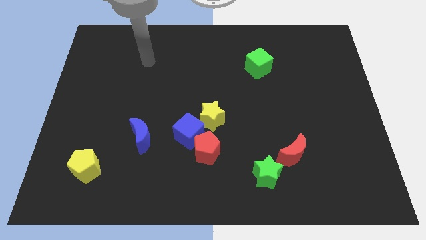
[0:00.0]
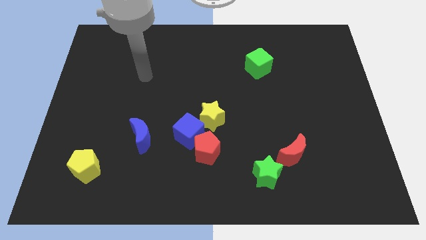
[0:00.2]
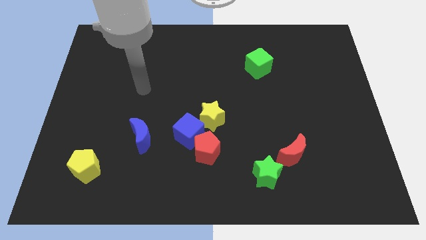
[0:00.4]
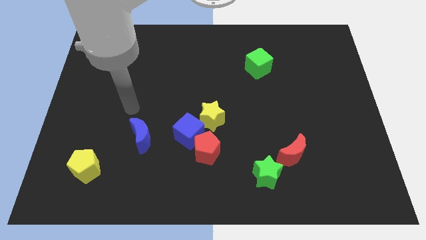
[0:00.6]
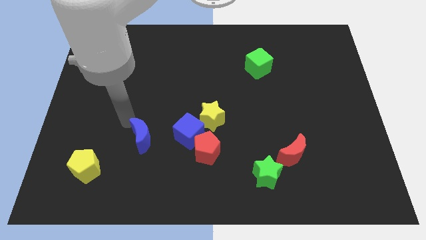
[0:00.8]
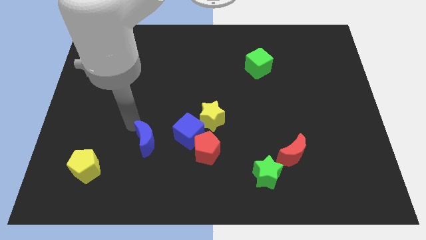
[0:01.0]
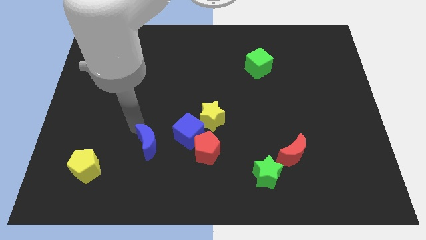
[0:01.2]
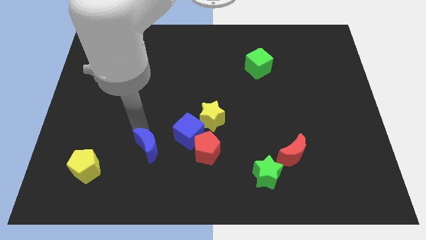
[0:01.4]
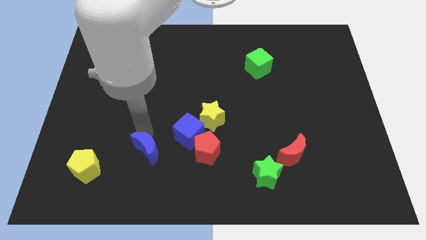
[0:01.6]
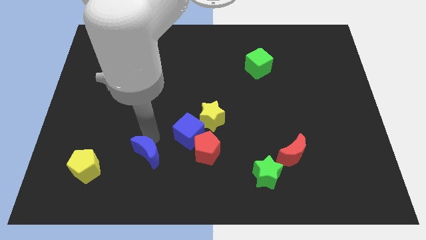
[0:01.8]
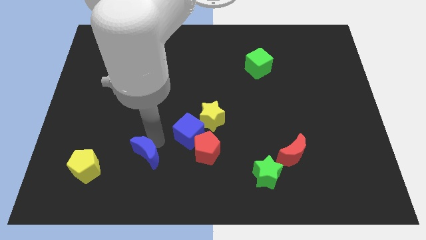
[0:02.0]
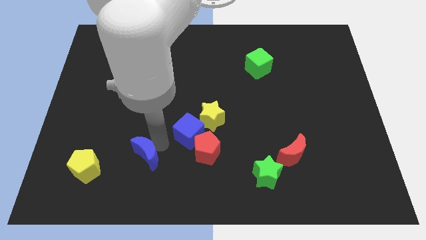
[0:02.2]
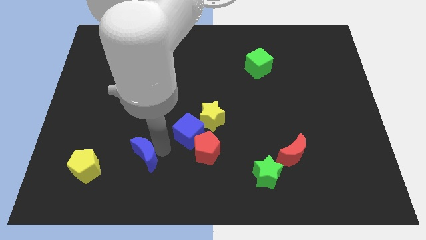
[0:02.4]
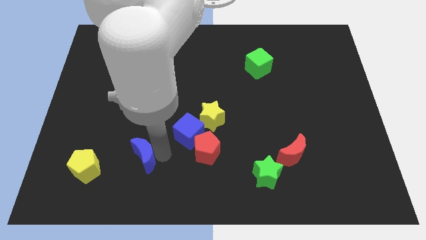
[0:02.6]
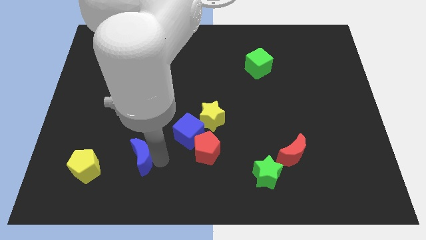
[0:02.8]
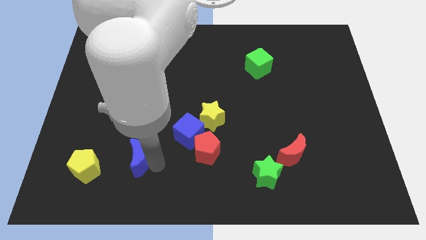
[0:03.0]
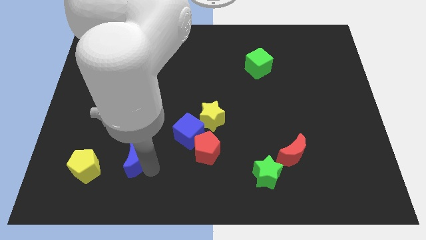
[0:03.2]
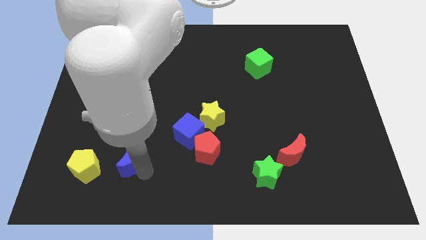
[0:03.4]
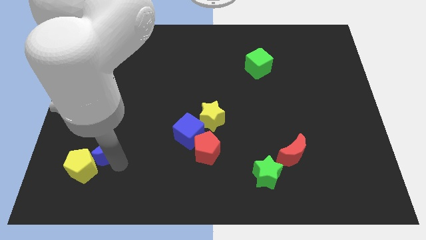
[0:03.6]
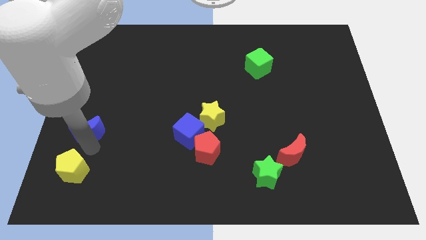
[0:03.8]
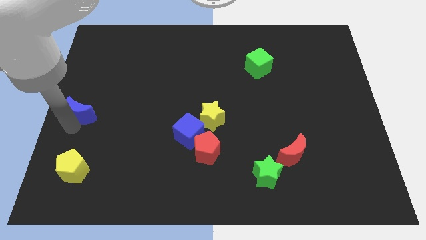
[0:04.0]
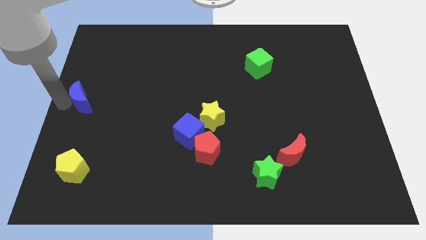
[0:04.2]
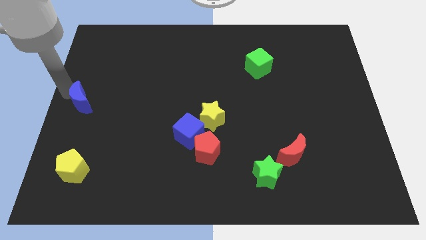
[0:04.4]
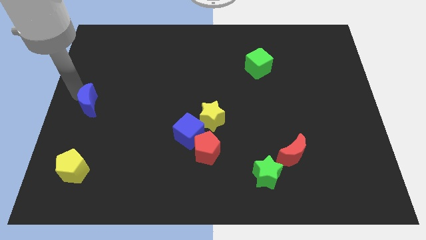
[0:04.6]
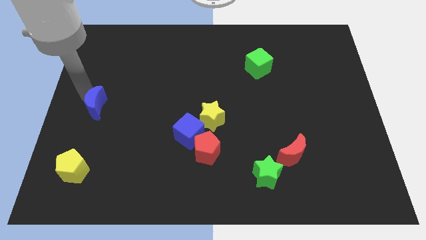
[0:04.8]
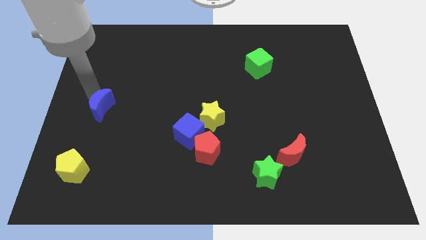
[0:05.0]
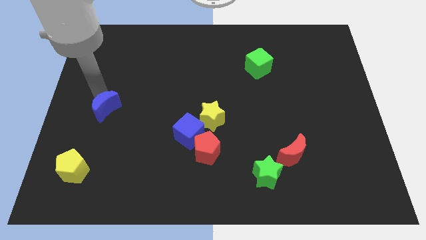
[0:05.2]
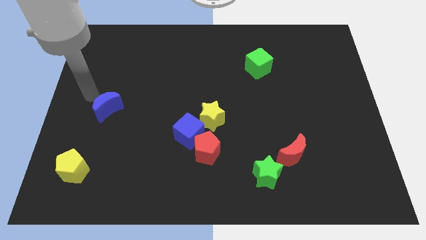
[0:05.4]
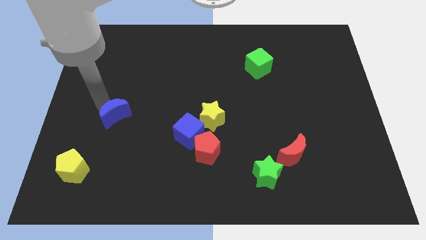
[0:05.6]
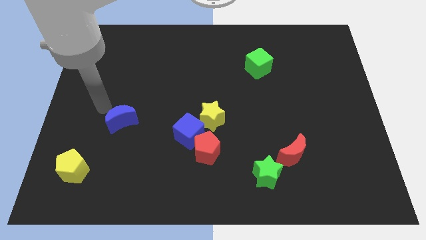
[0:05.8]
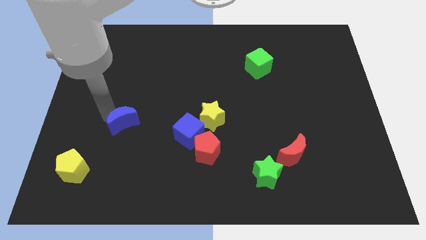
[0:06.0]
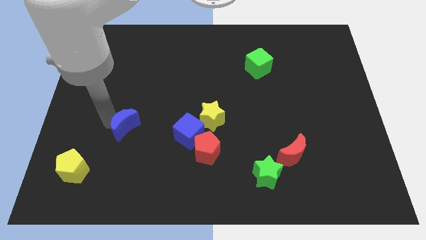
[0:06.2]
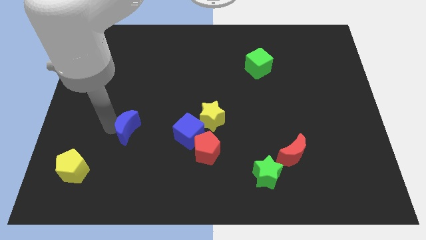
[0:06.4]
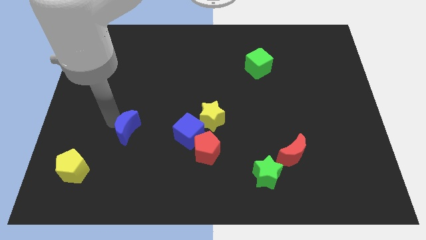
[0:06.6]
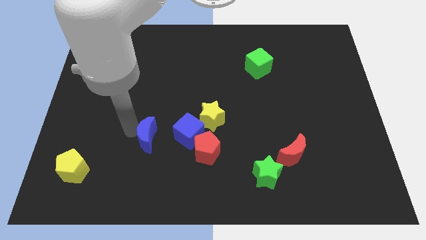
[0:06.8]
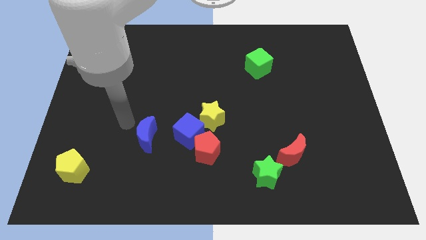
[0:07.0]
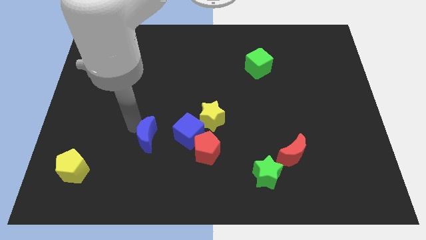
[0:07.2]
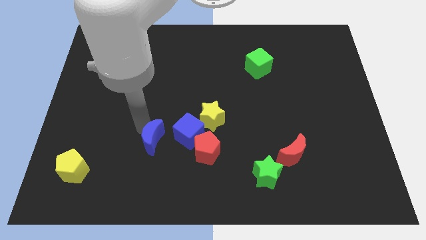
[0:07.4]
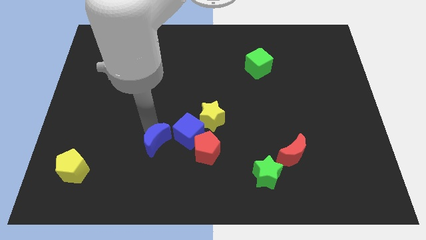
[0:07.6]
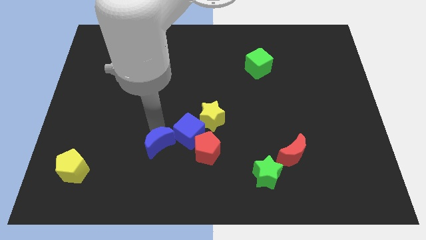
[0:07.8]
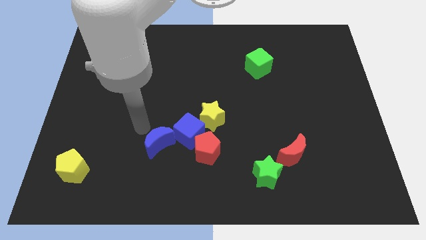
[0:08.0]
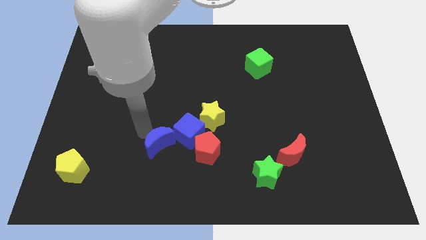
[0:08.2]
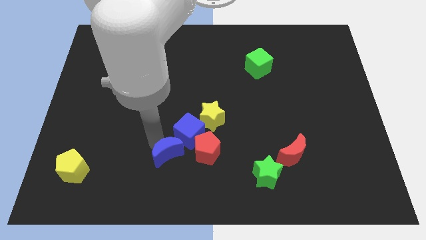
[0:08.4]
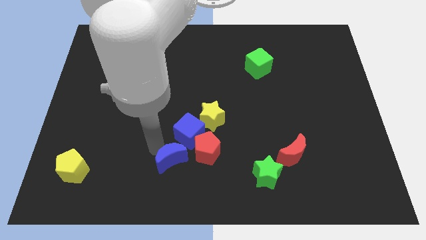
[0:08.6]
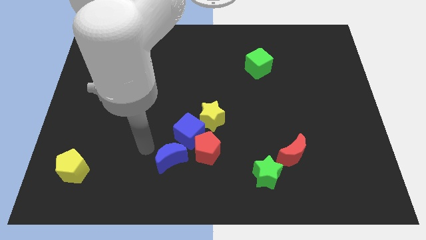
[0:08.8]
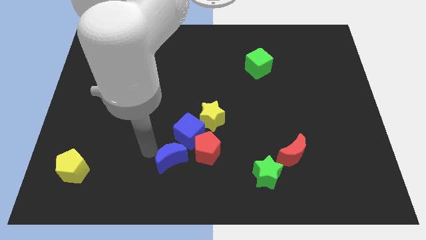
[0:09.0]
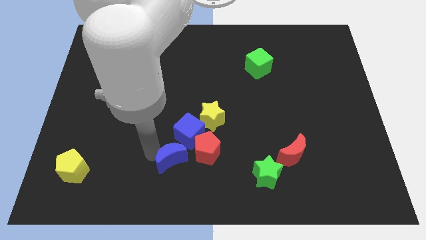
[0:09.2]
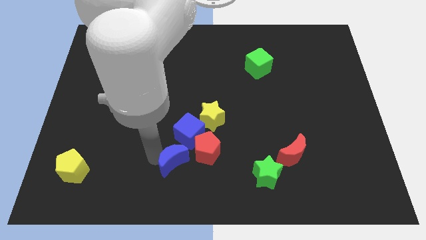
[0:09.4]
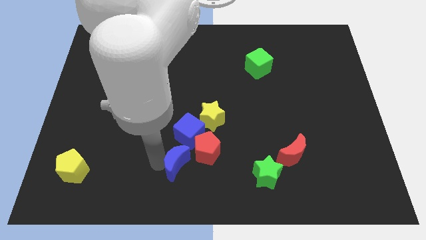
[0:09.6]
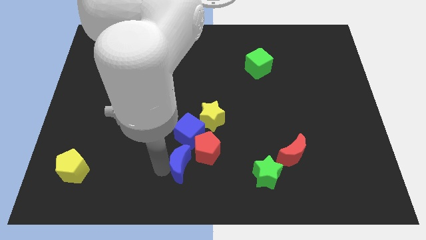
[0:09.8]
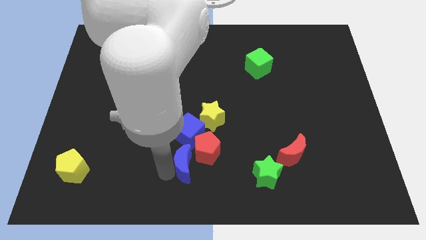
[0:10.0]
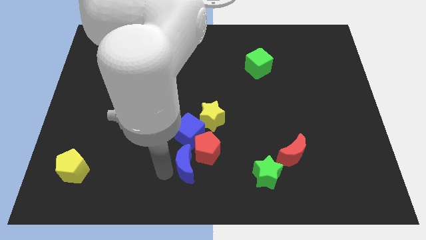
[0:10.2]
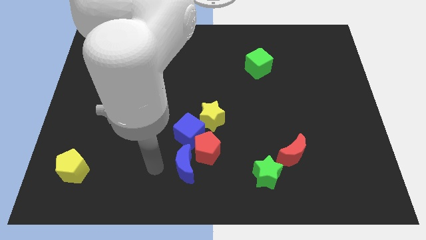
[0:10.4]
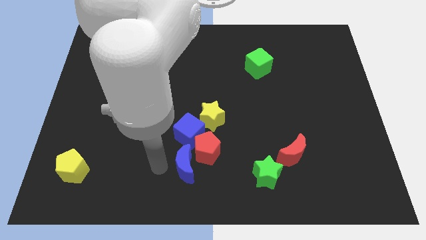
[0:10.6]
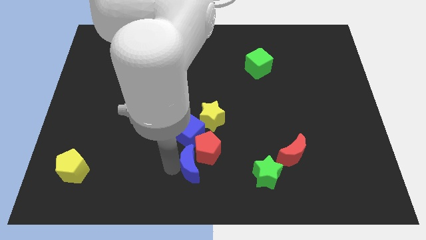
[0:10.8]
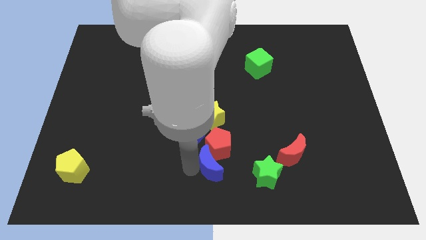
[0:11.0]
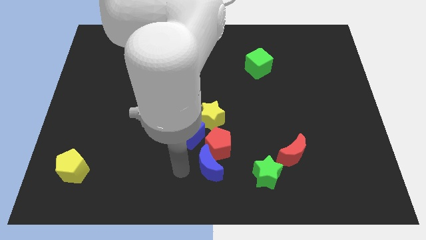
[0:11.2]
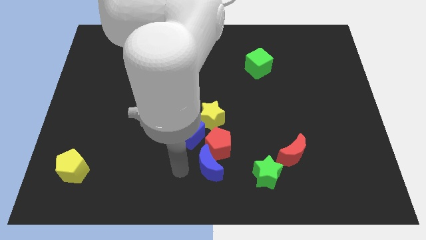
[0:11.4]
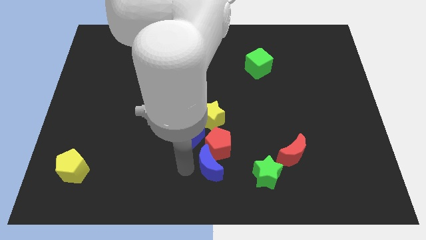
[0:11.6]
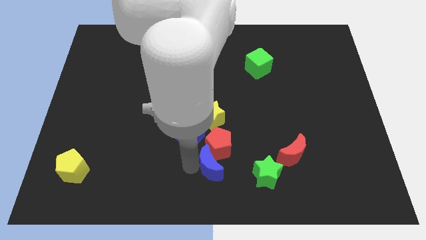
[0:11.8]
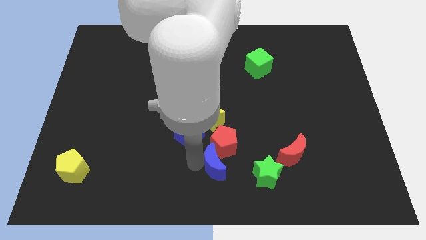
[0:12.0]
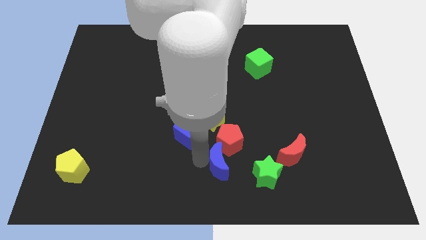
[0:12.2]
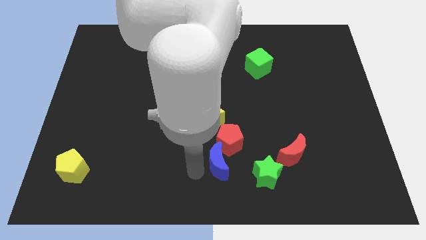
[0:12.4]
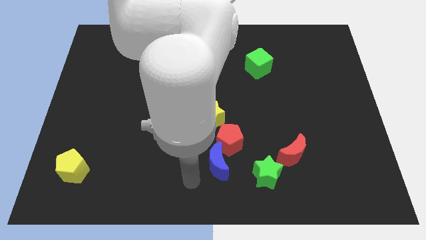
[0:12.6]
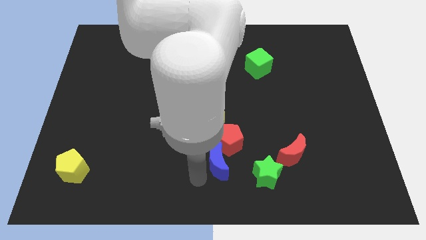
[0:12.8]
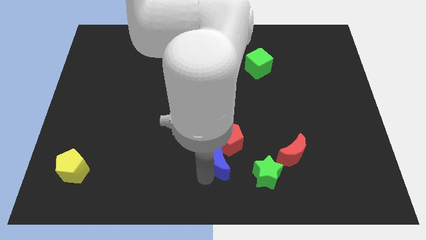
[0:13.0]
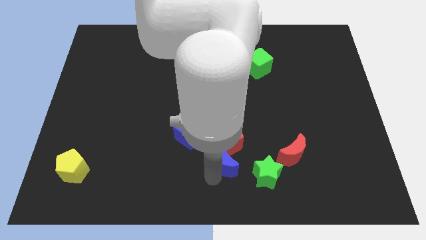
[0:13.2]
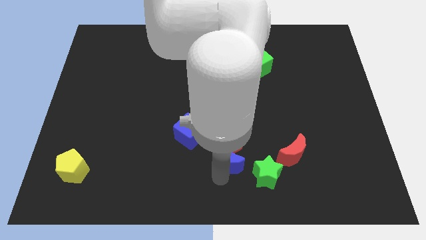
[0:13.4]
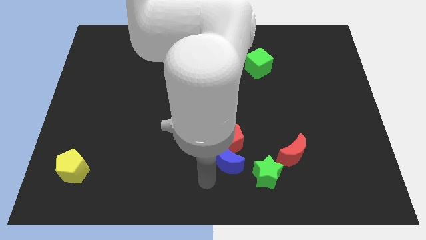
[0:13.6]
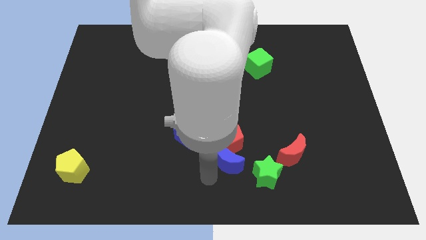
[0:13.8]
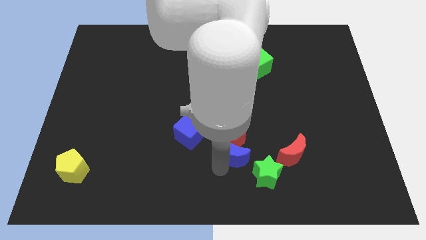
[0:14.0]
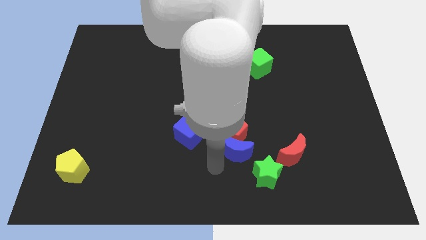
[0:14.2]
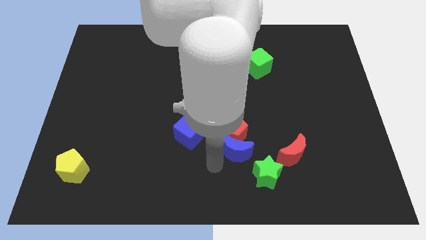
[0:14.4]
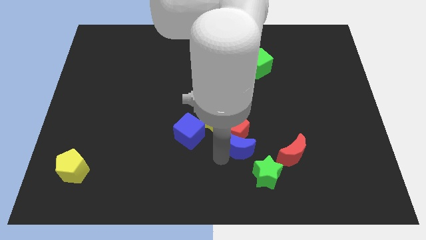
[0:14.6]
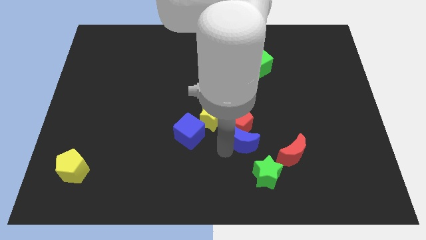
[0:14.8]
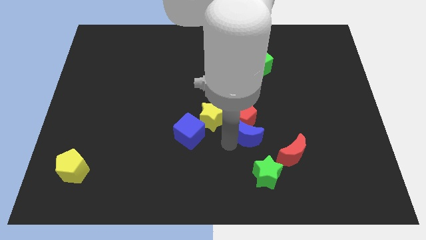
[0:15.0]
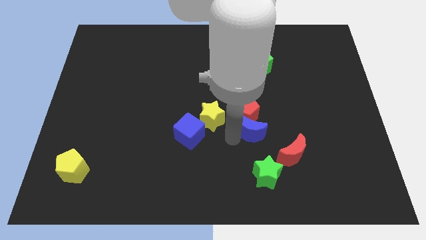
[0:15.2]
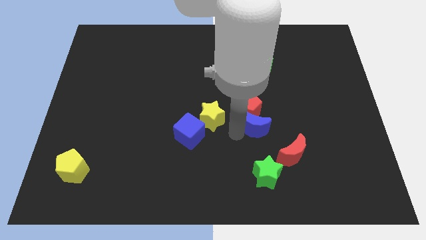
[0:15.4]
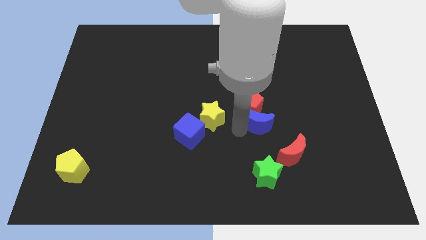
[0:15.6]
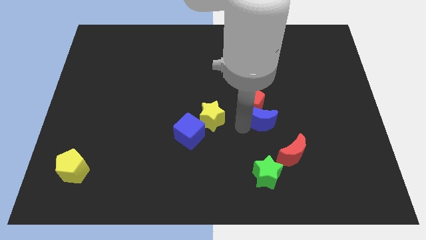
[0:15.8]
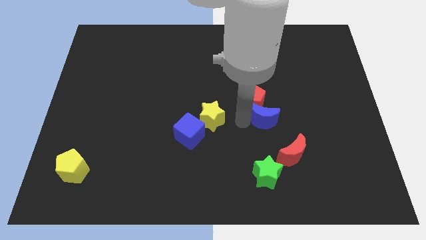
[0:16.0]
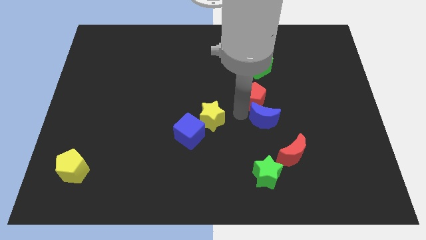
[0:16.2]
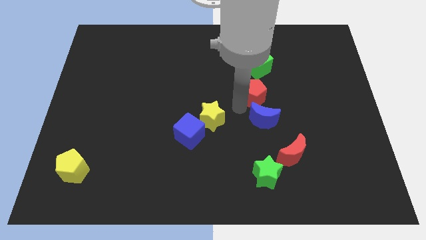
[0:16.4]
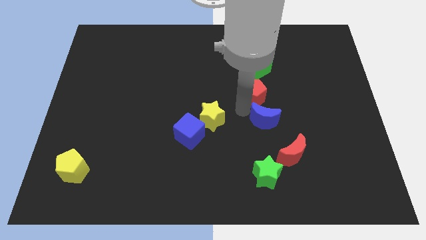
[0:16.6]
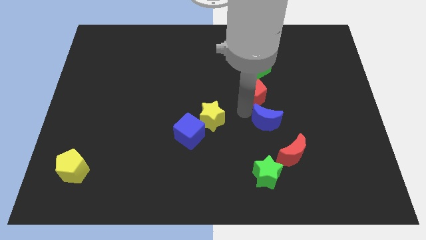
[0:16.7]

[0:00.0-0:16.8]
put the blue moon to the top of the red moon
